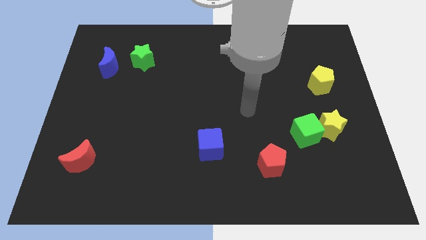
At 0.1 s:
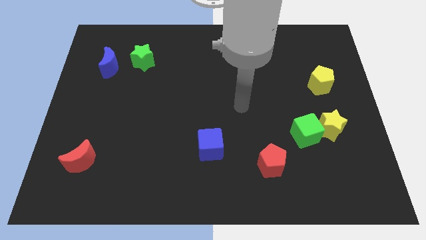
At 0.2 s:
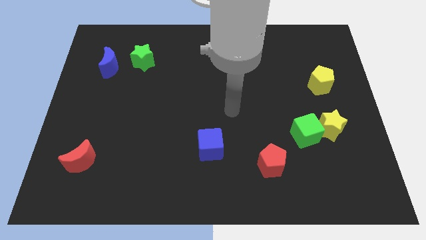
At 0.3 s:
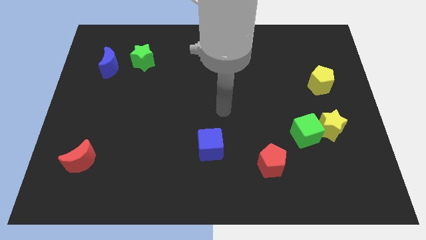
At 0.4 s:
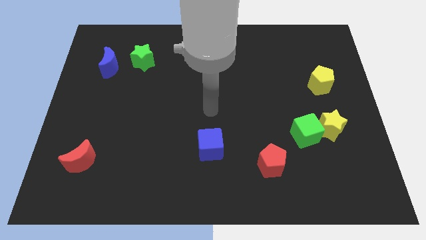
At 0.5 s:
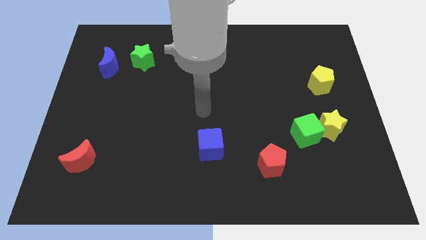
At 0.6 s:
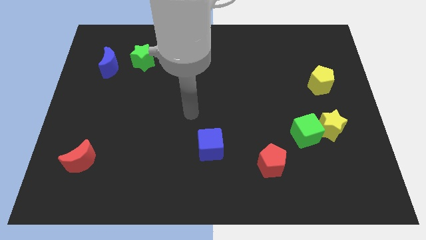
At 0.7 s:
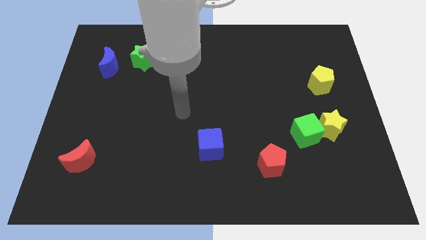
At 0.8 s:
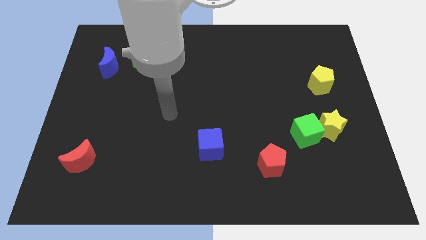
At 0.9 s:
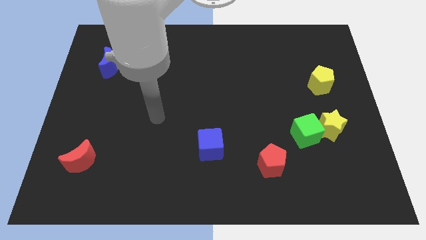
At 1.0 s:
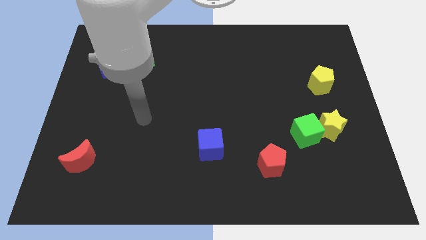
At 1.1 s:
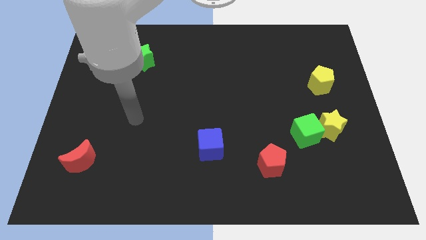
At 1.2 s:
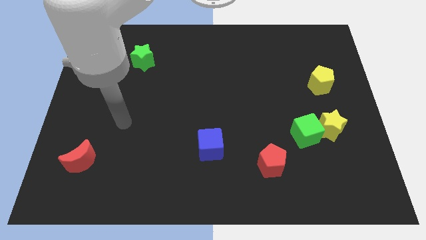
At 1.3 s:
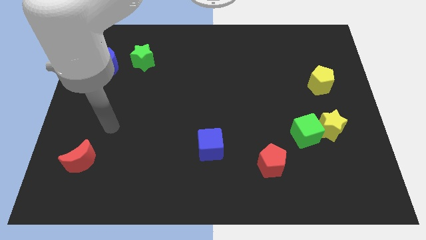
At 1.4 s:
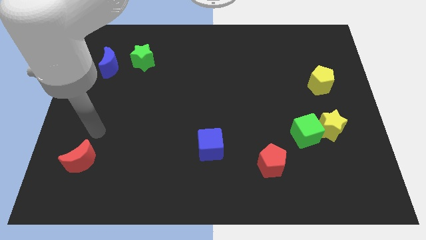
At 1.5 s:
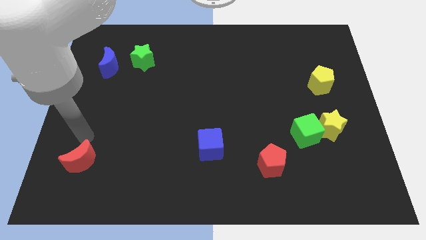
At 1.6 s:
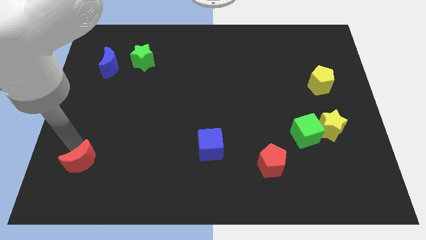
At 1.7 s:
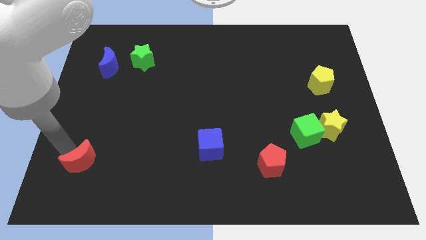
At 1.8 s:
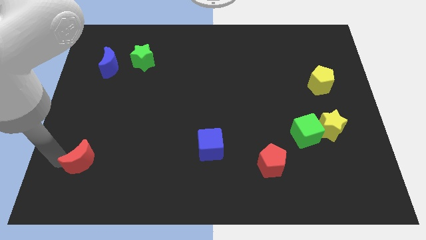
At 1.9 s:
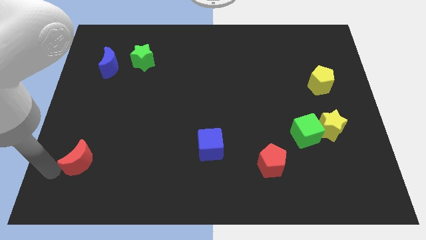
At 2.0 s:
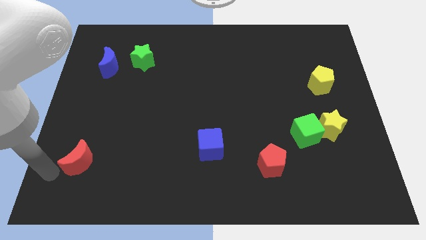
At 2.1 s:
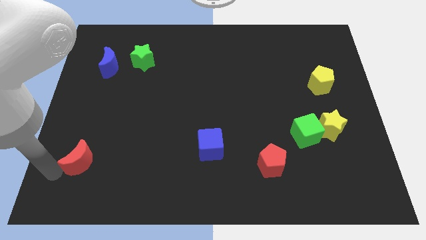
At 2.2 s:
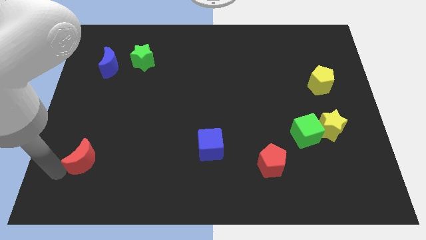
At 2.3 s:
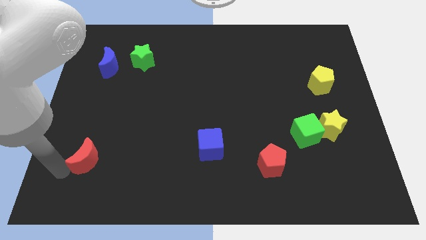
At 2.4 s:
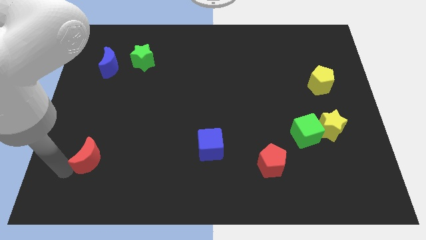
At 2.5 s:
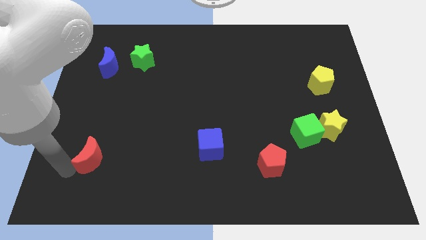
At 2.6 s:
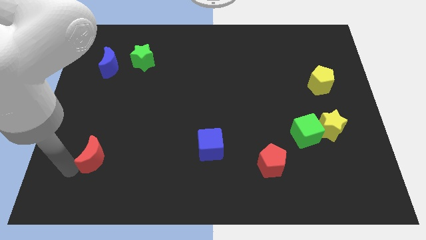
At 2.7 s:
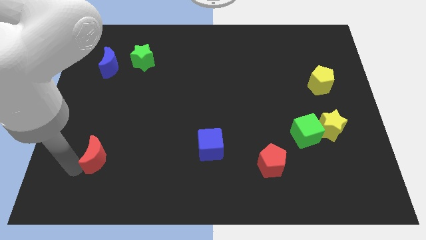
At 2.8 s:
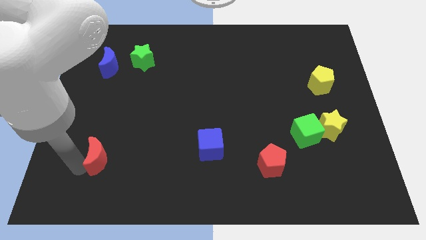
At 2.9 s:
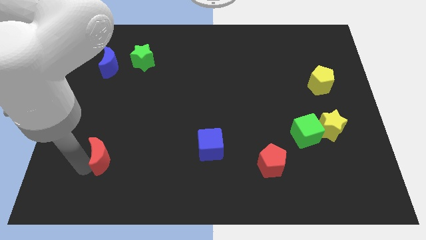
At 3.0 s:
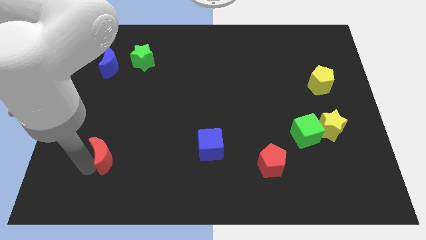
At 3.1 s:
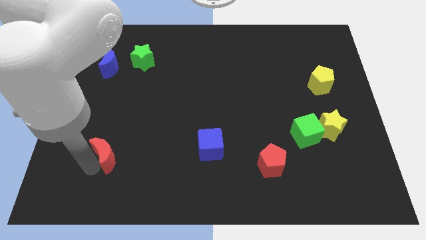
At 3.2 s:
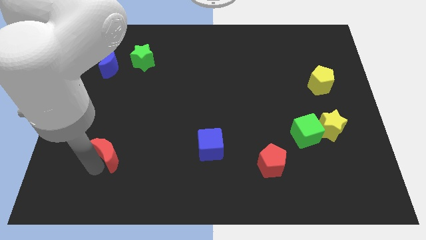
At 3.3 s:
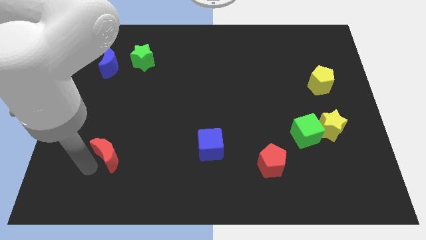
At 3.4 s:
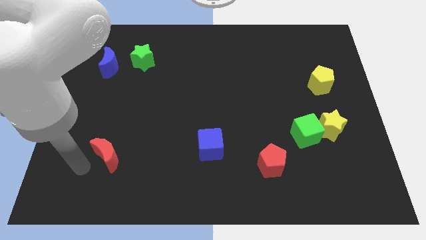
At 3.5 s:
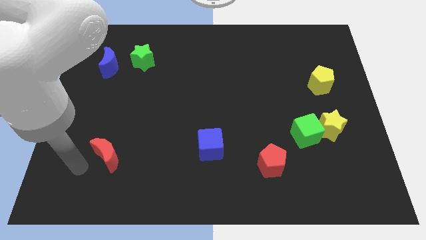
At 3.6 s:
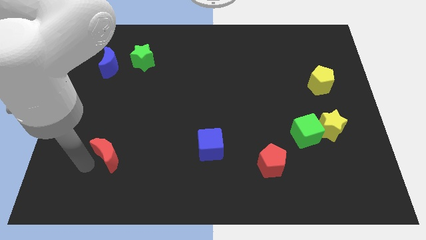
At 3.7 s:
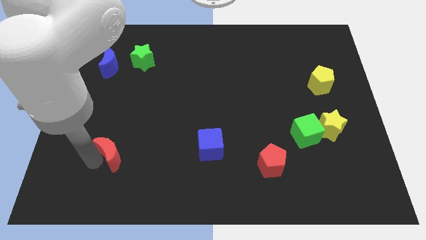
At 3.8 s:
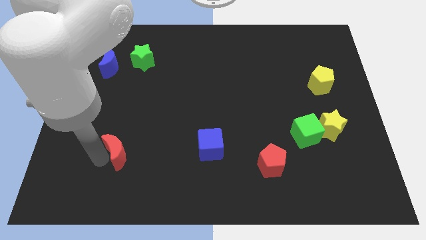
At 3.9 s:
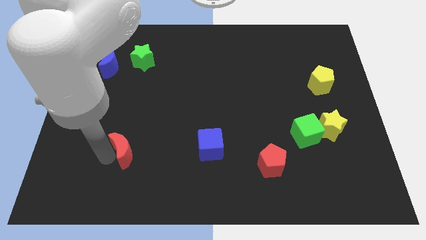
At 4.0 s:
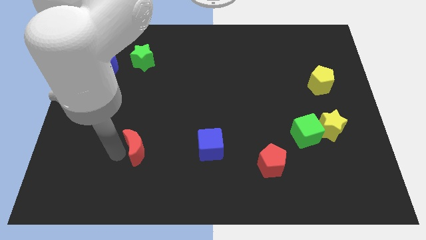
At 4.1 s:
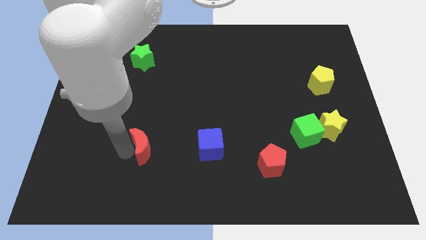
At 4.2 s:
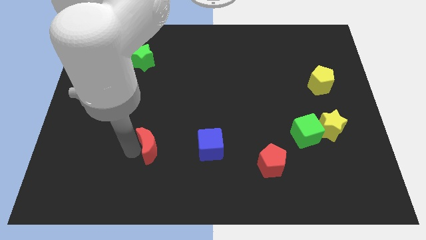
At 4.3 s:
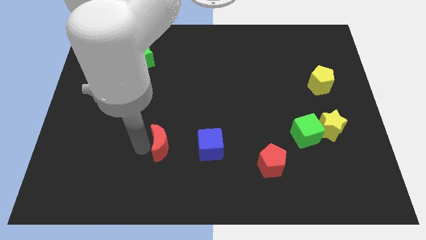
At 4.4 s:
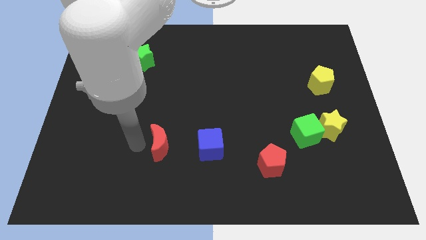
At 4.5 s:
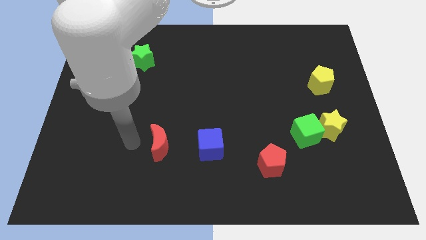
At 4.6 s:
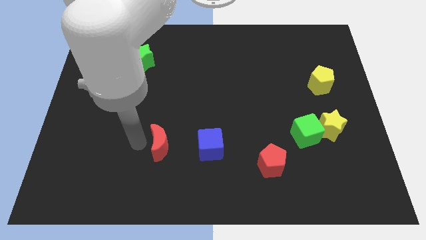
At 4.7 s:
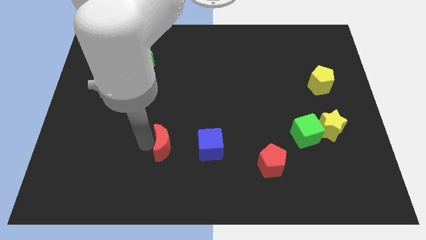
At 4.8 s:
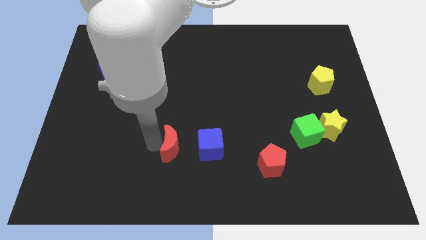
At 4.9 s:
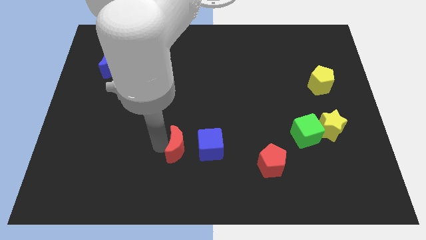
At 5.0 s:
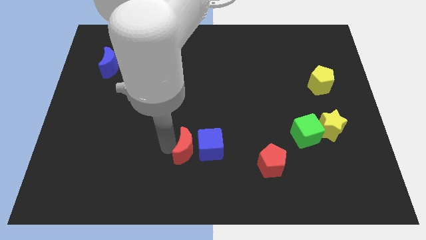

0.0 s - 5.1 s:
push the red moon close to the blue cube

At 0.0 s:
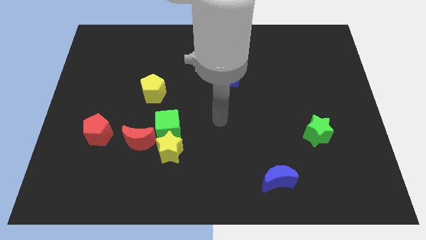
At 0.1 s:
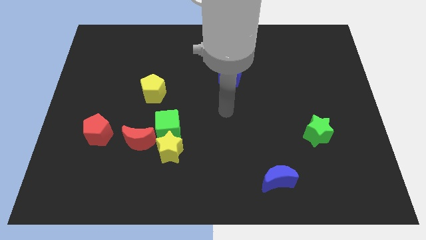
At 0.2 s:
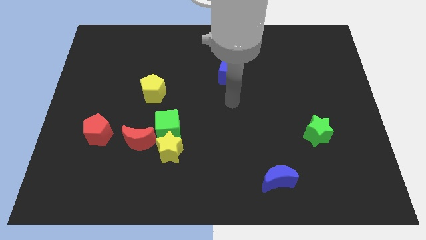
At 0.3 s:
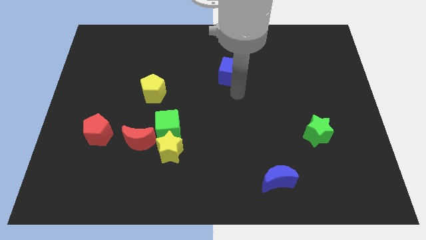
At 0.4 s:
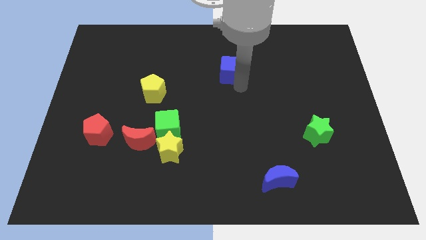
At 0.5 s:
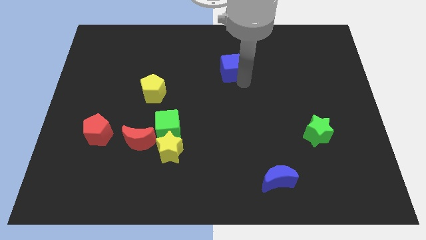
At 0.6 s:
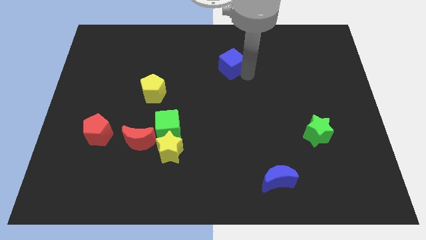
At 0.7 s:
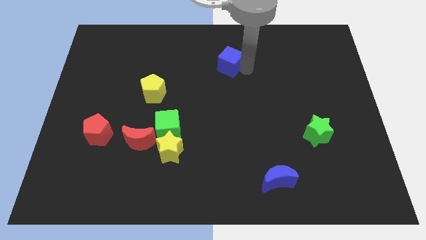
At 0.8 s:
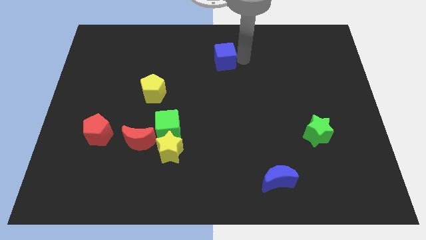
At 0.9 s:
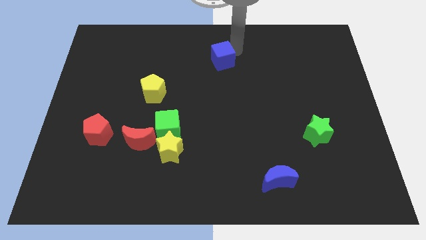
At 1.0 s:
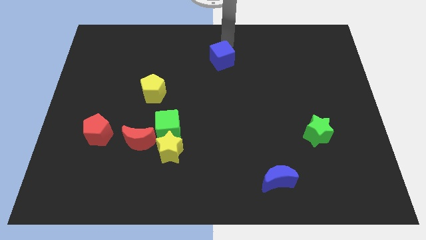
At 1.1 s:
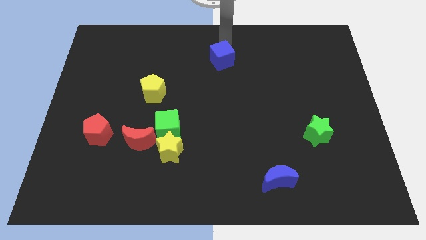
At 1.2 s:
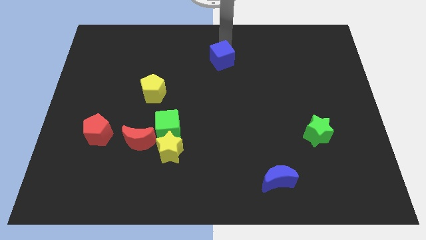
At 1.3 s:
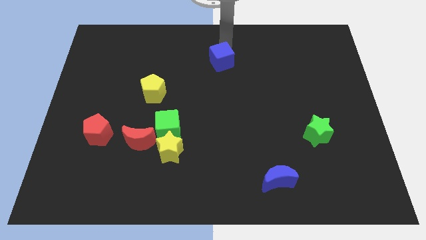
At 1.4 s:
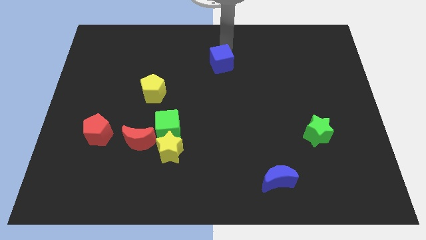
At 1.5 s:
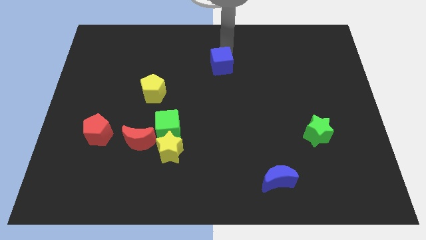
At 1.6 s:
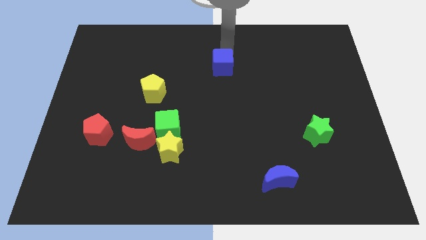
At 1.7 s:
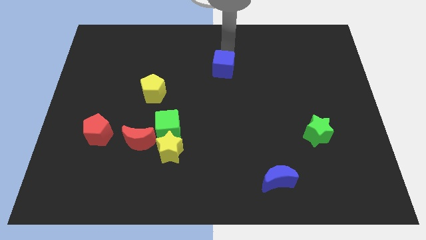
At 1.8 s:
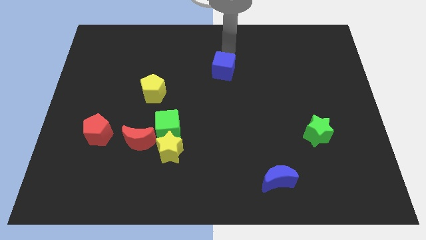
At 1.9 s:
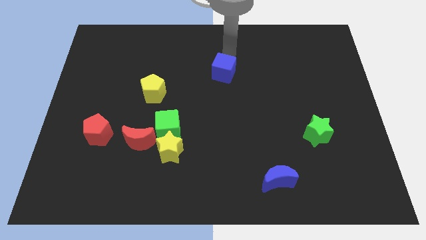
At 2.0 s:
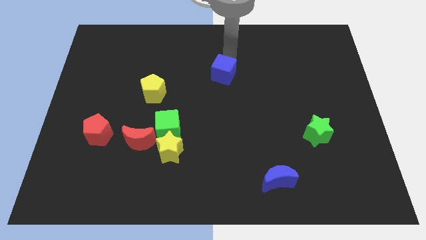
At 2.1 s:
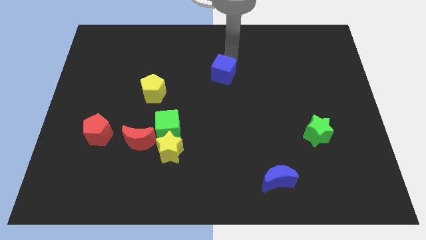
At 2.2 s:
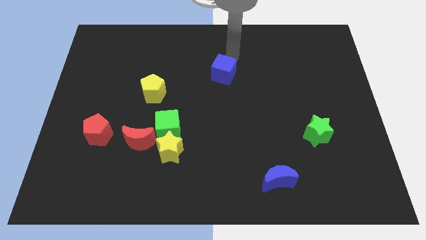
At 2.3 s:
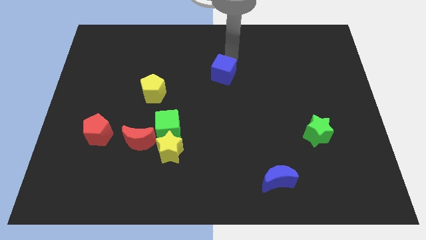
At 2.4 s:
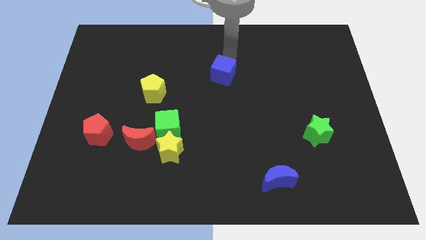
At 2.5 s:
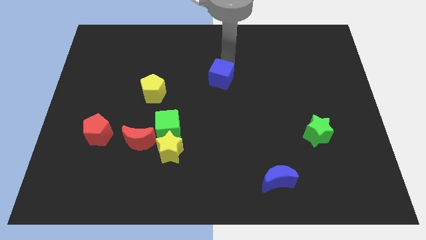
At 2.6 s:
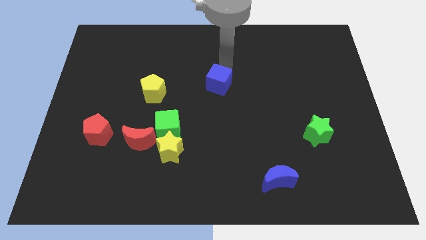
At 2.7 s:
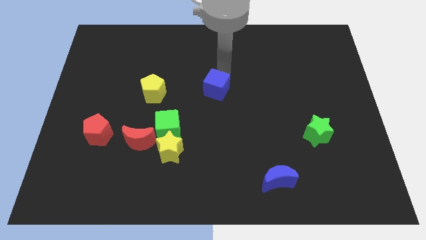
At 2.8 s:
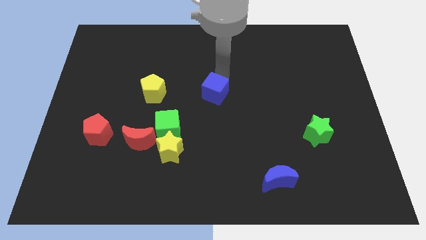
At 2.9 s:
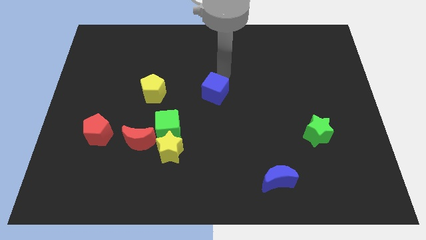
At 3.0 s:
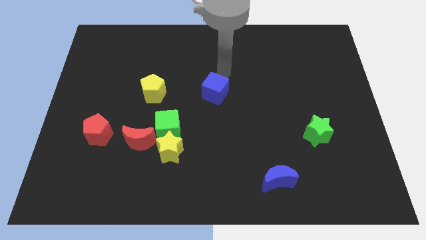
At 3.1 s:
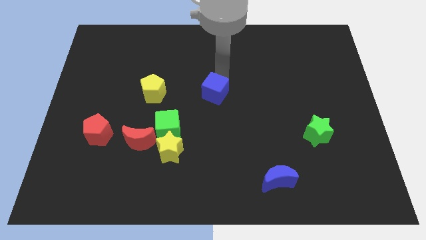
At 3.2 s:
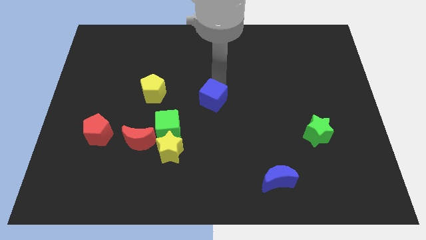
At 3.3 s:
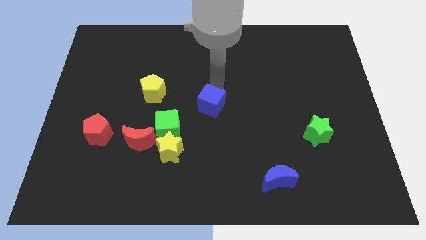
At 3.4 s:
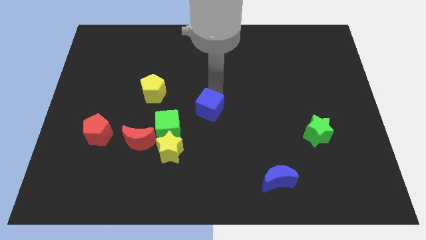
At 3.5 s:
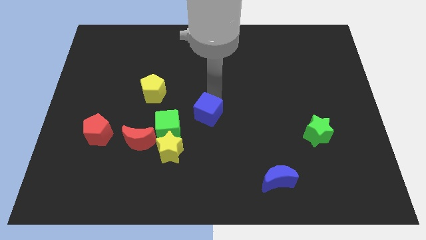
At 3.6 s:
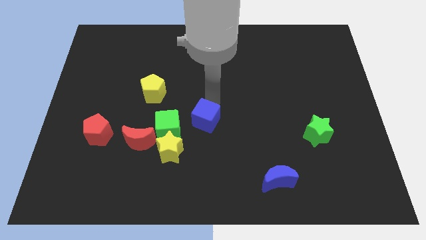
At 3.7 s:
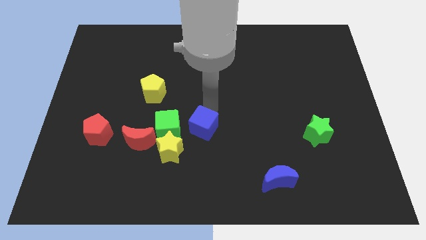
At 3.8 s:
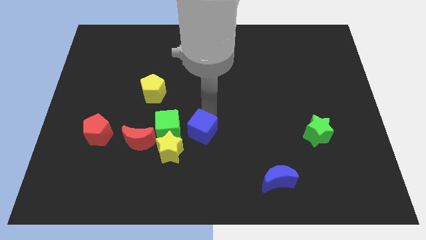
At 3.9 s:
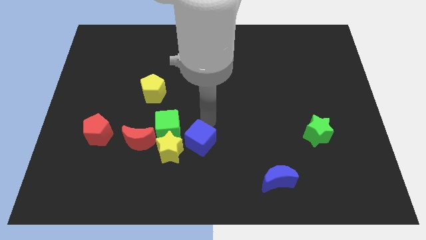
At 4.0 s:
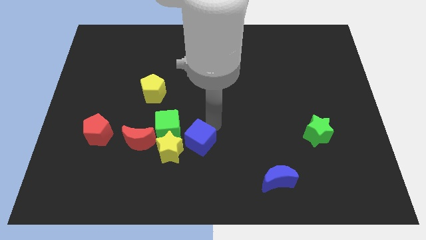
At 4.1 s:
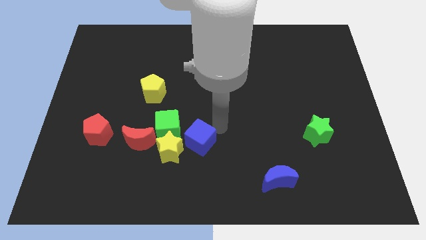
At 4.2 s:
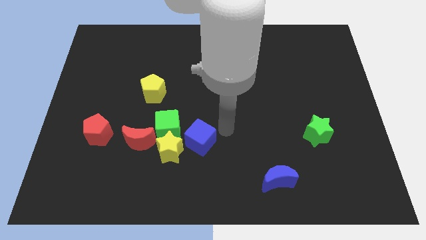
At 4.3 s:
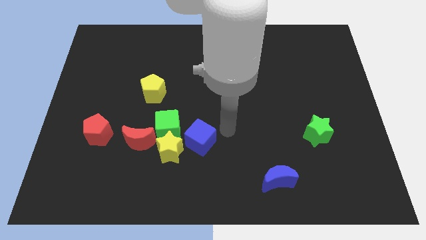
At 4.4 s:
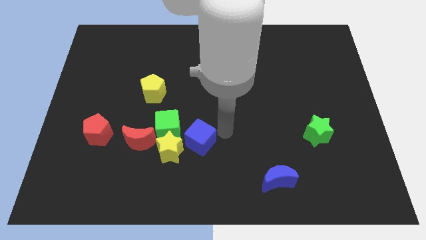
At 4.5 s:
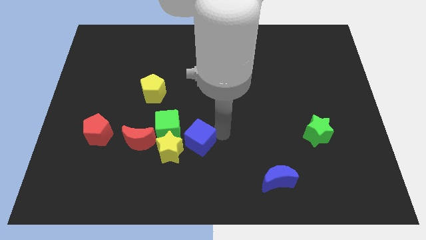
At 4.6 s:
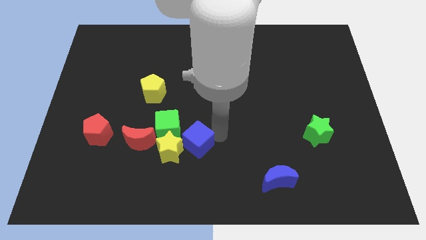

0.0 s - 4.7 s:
put the blue cube towards the yellow star
